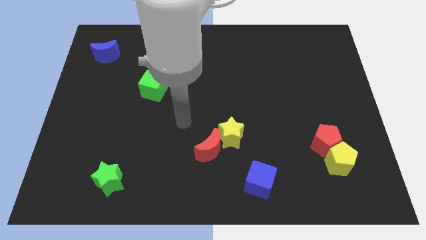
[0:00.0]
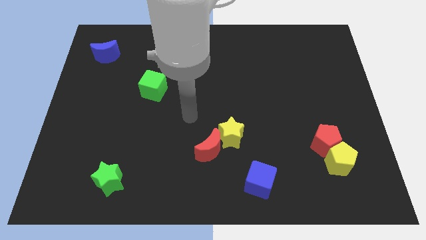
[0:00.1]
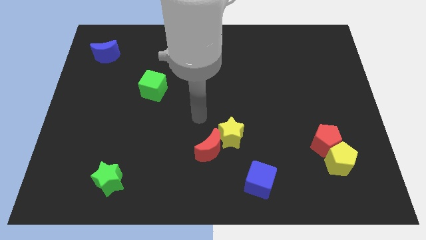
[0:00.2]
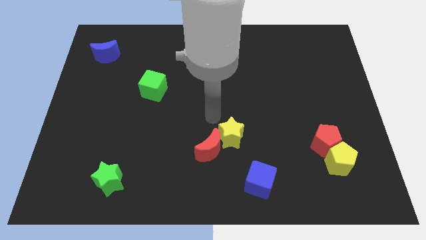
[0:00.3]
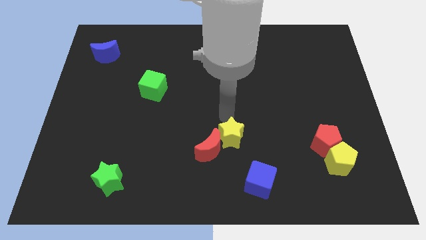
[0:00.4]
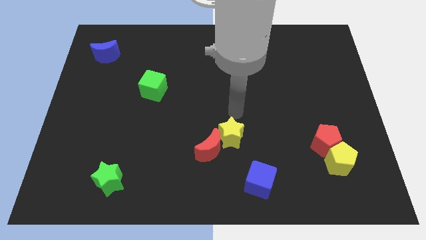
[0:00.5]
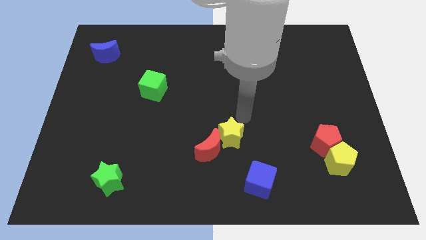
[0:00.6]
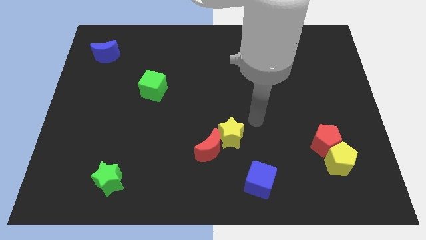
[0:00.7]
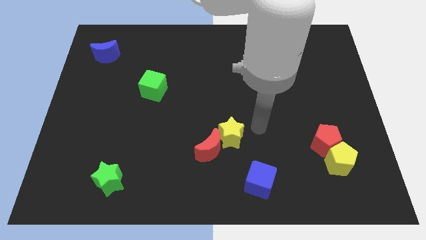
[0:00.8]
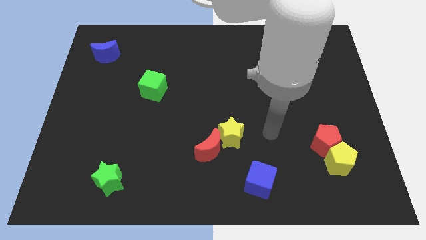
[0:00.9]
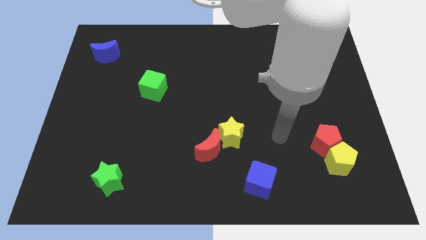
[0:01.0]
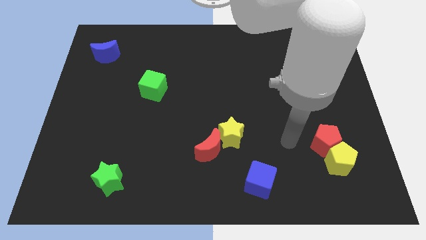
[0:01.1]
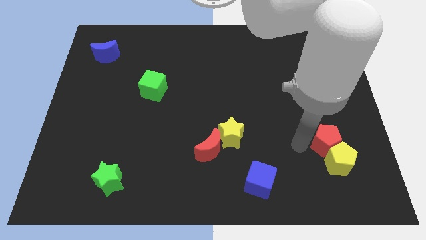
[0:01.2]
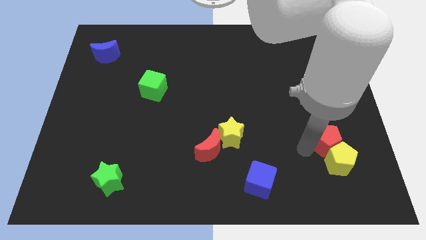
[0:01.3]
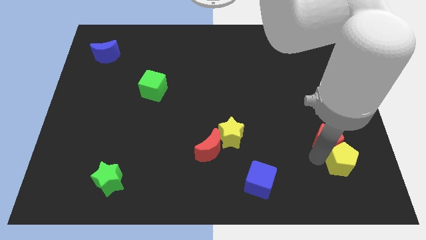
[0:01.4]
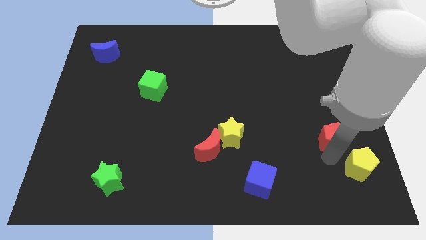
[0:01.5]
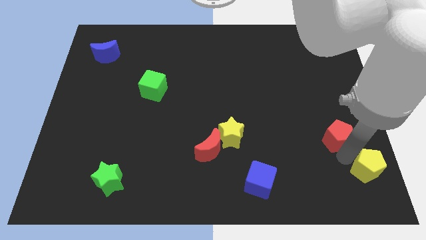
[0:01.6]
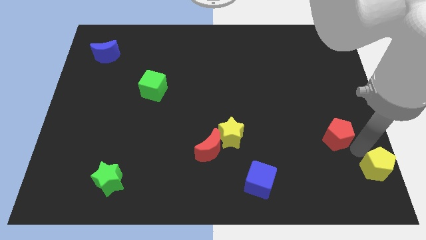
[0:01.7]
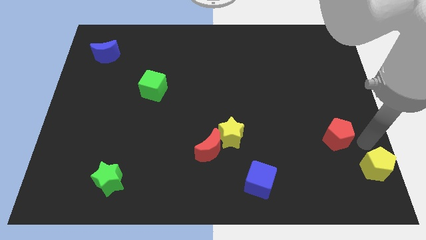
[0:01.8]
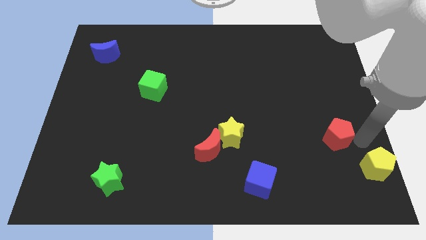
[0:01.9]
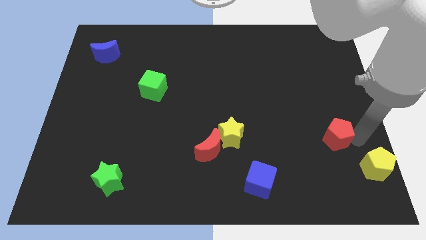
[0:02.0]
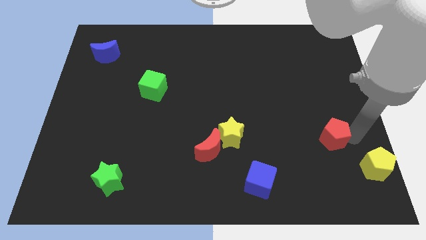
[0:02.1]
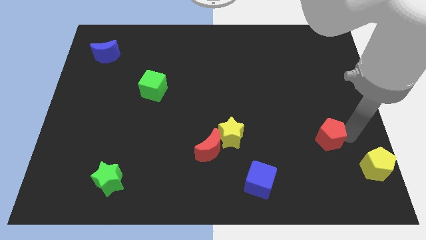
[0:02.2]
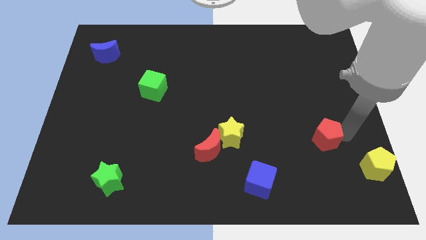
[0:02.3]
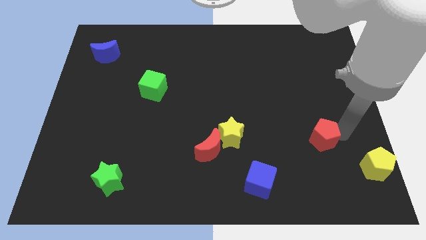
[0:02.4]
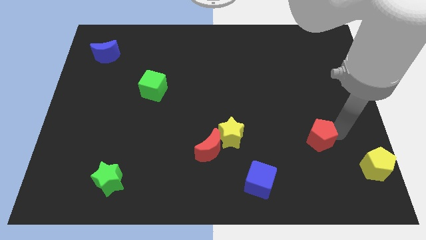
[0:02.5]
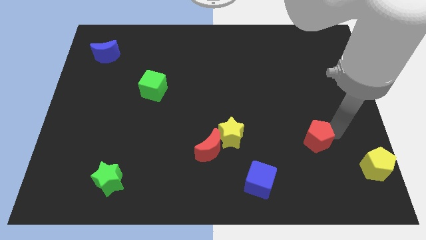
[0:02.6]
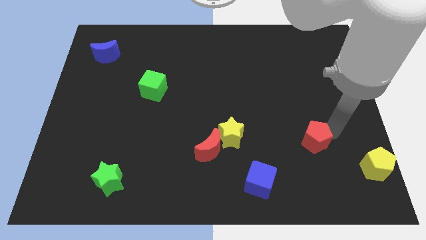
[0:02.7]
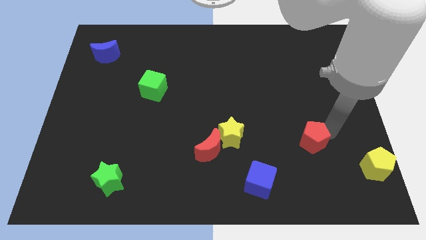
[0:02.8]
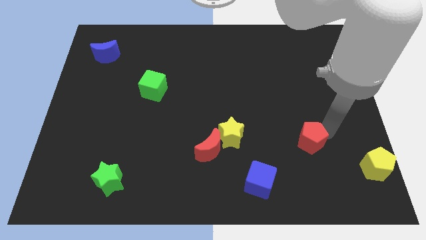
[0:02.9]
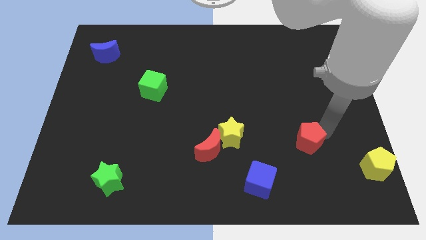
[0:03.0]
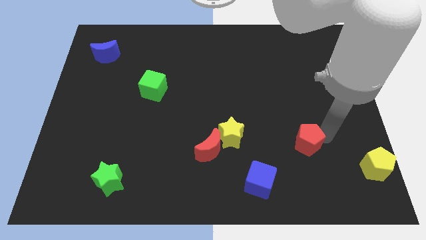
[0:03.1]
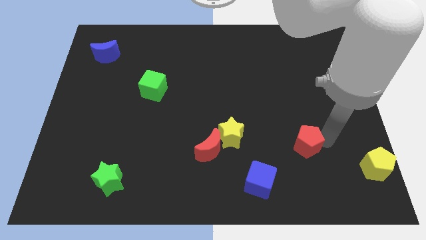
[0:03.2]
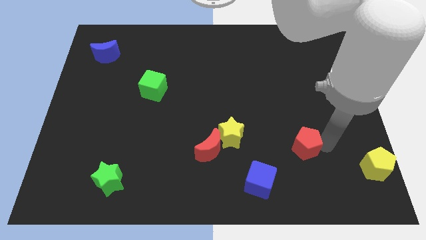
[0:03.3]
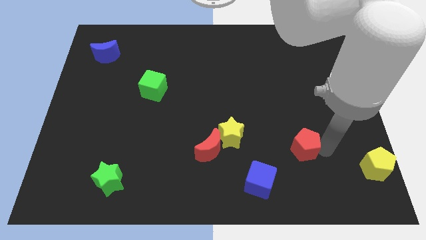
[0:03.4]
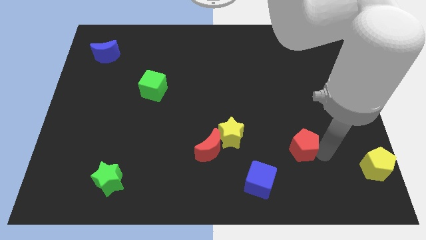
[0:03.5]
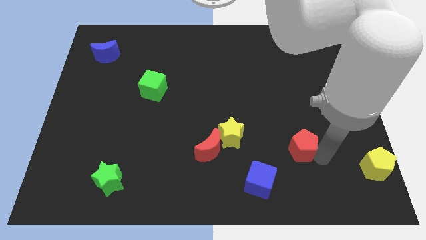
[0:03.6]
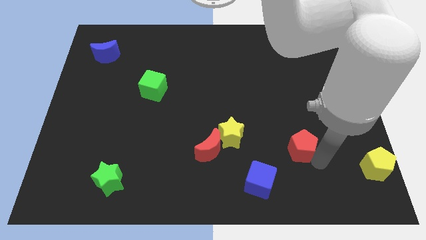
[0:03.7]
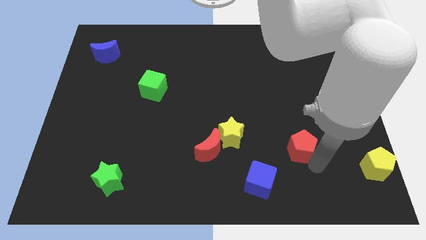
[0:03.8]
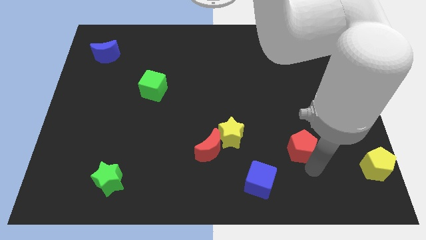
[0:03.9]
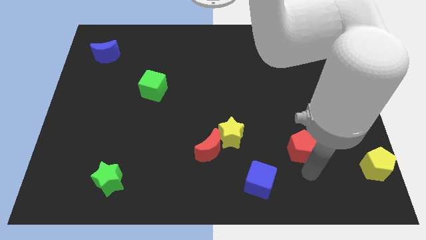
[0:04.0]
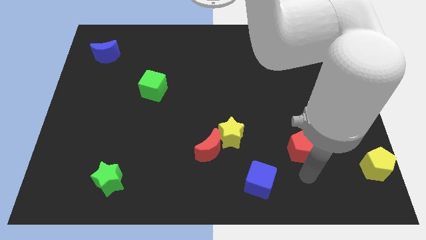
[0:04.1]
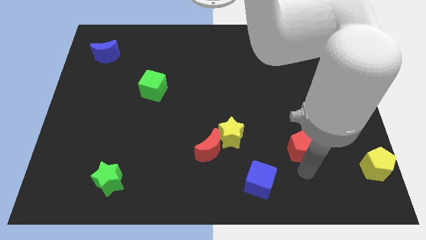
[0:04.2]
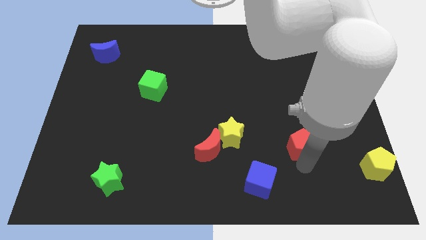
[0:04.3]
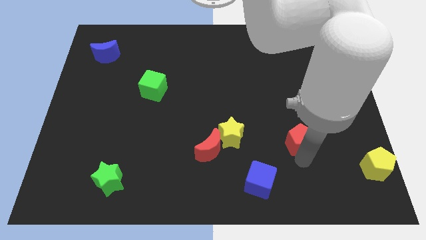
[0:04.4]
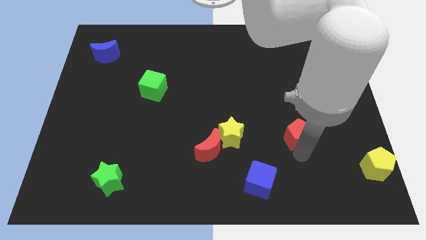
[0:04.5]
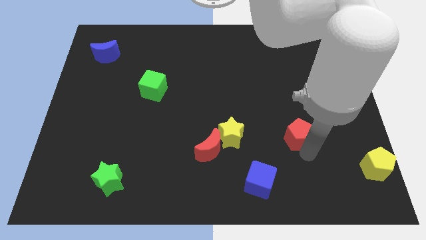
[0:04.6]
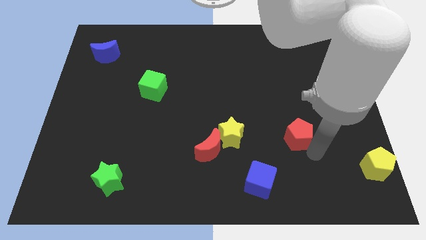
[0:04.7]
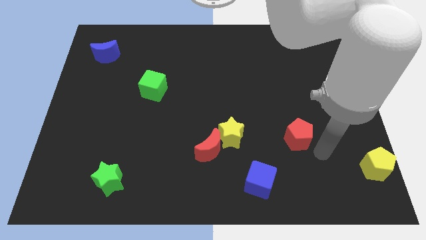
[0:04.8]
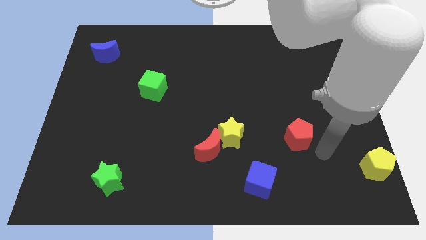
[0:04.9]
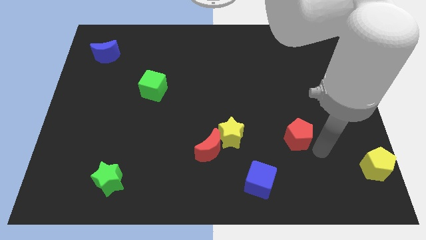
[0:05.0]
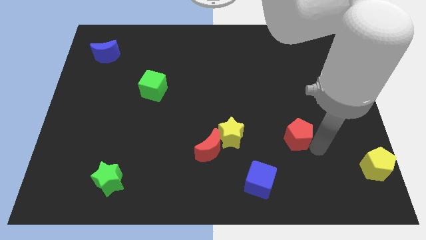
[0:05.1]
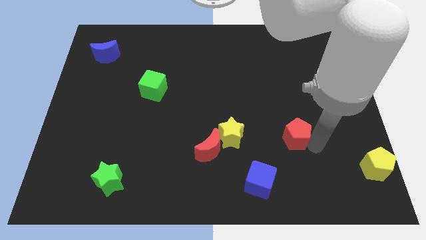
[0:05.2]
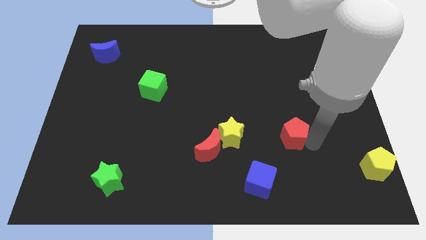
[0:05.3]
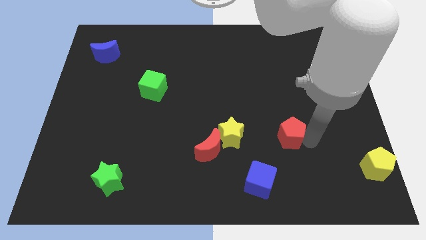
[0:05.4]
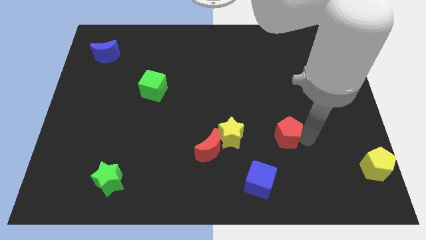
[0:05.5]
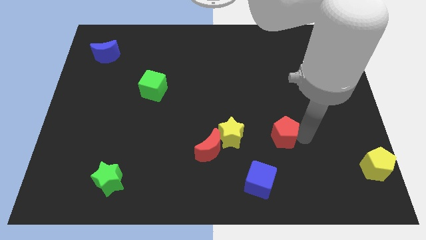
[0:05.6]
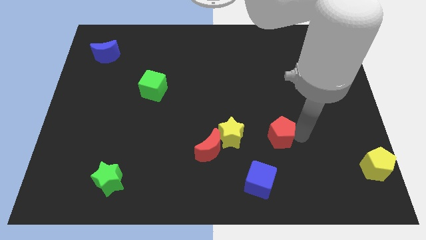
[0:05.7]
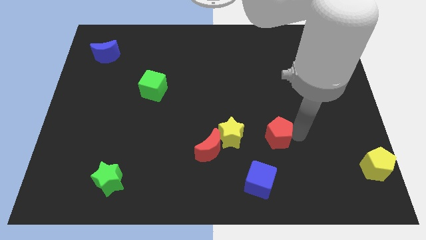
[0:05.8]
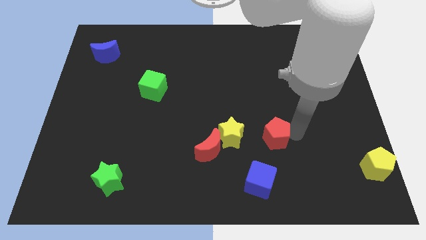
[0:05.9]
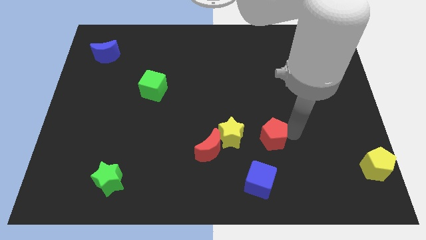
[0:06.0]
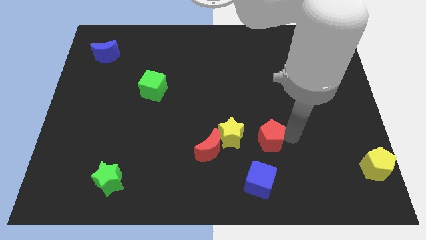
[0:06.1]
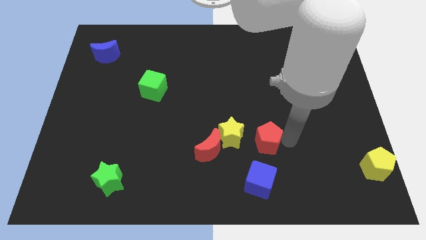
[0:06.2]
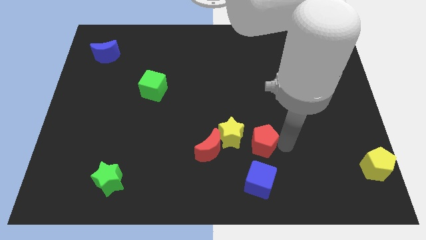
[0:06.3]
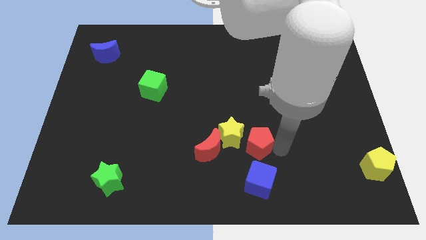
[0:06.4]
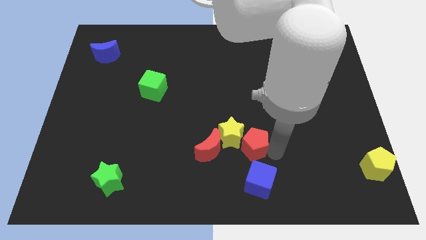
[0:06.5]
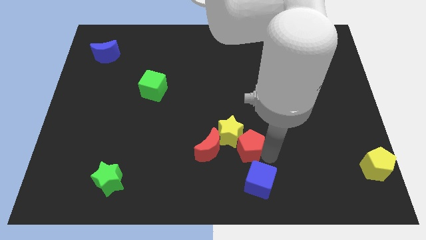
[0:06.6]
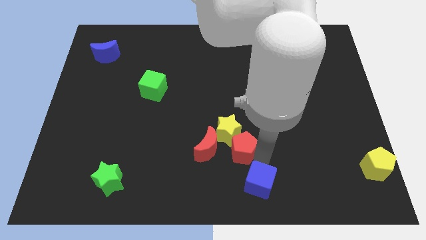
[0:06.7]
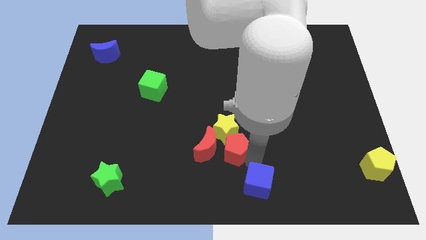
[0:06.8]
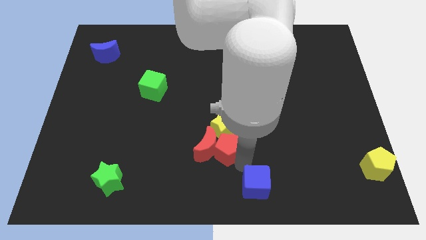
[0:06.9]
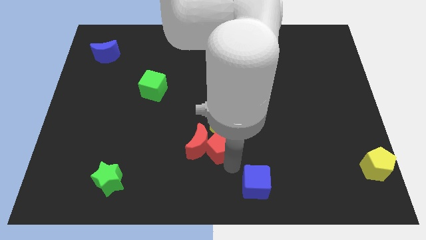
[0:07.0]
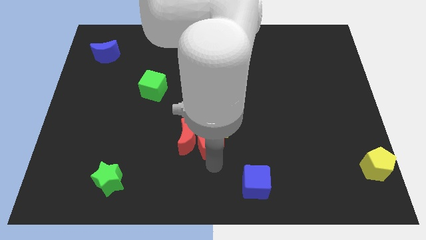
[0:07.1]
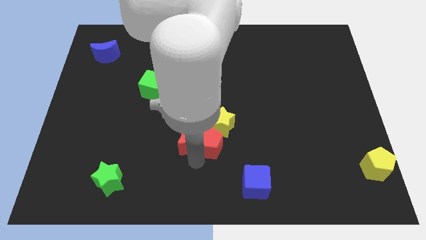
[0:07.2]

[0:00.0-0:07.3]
push the red pentagon to the middle
